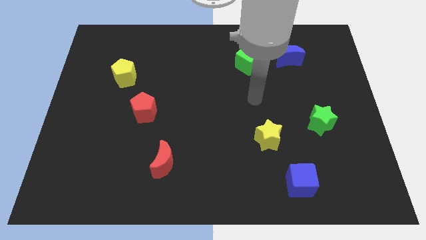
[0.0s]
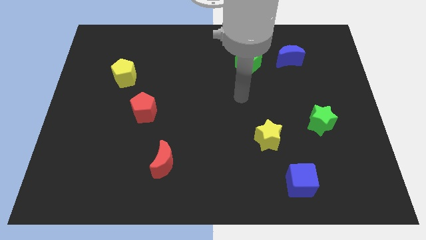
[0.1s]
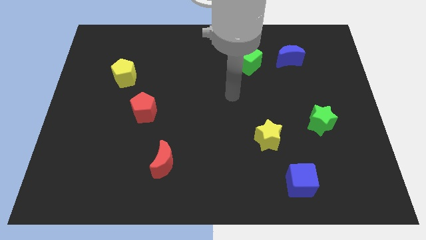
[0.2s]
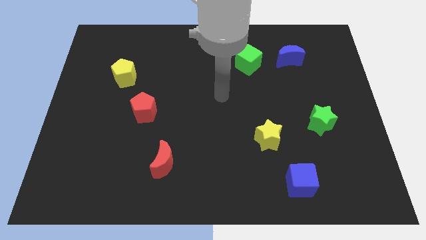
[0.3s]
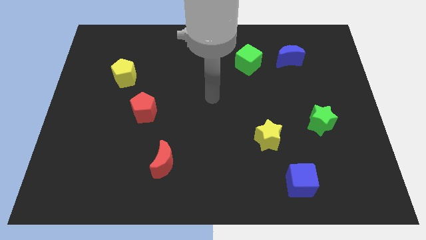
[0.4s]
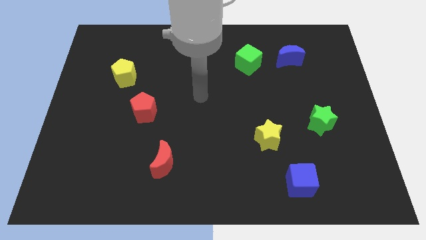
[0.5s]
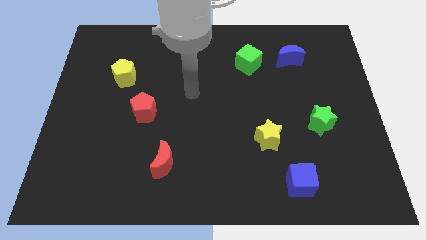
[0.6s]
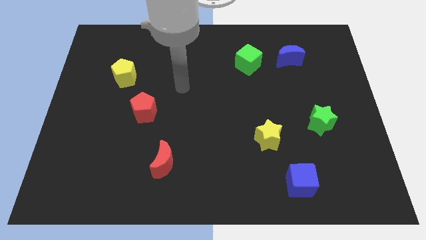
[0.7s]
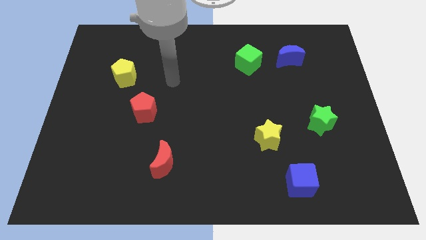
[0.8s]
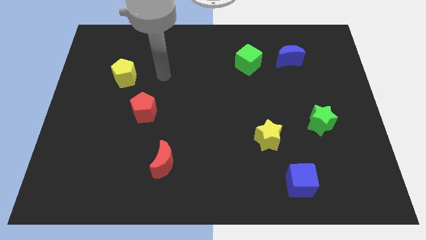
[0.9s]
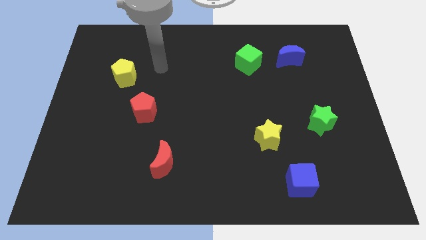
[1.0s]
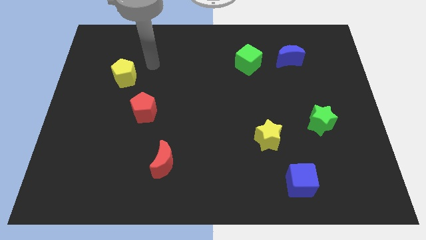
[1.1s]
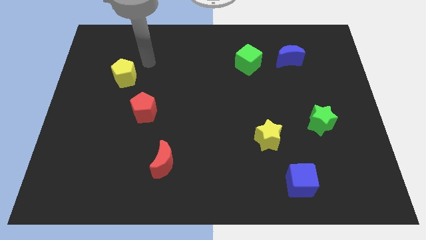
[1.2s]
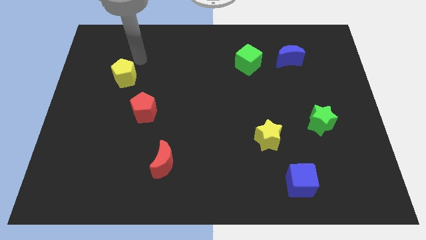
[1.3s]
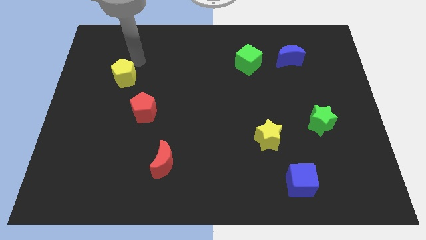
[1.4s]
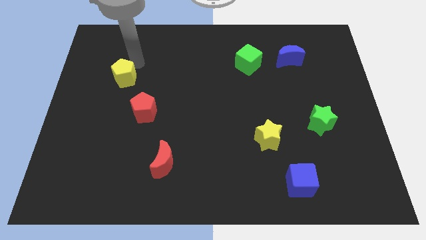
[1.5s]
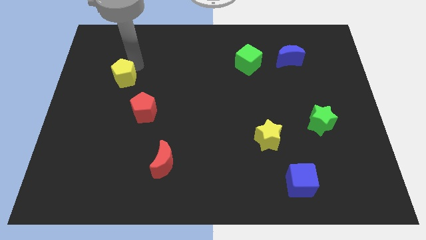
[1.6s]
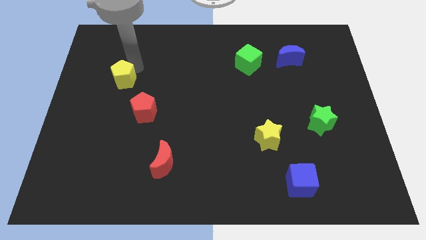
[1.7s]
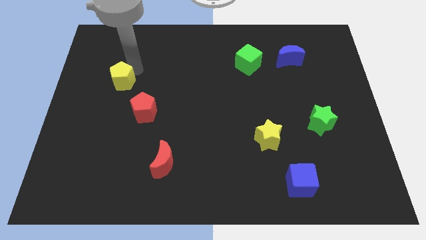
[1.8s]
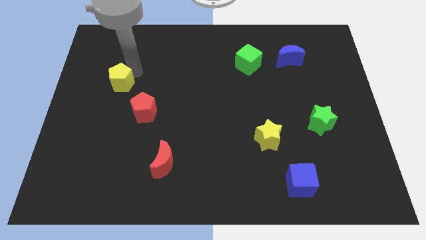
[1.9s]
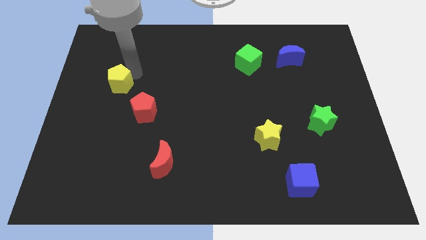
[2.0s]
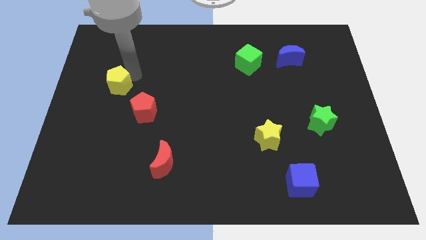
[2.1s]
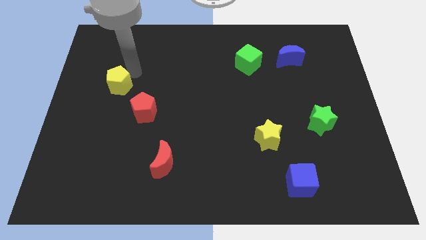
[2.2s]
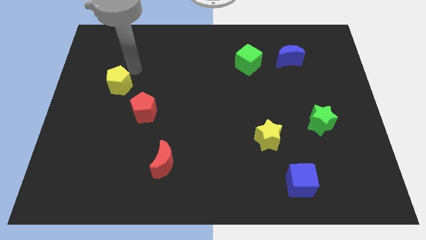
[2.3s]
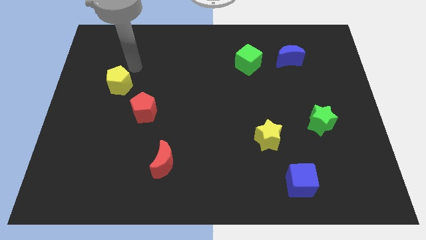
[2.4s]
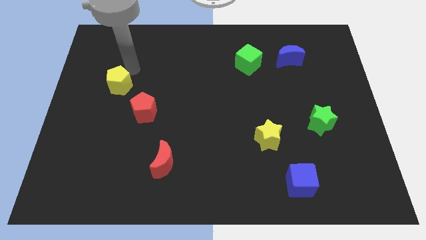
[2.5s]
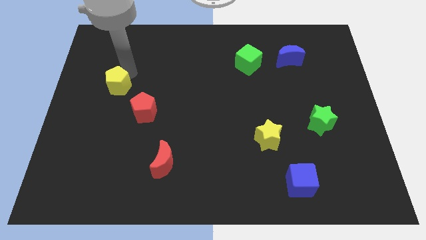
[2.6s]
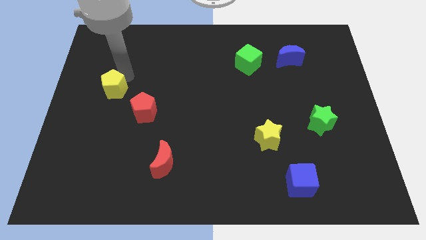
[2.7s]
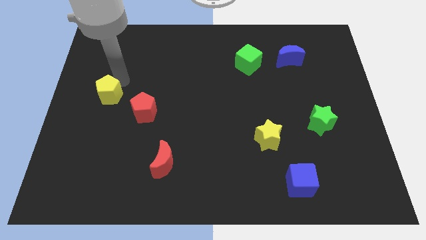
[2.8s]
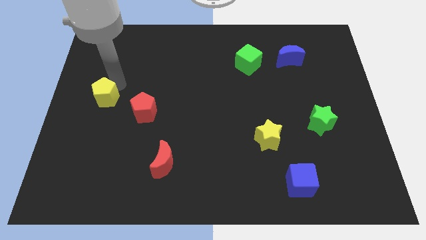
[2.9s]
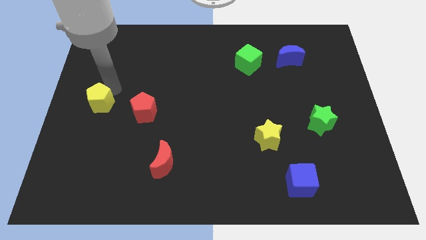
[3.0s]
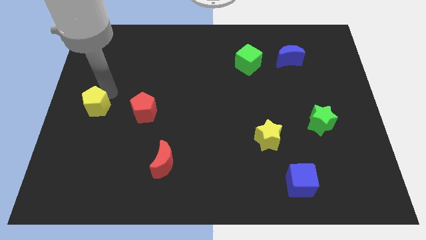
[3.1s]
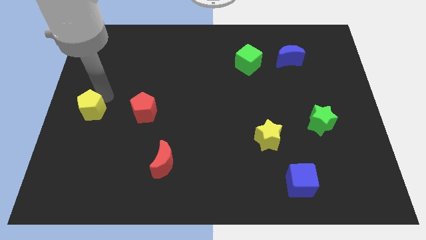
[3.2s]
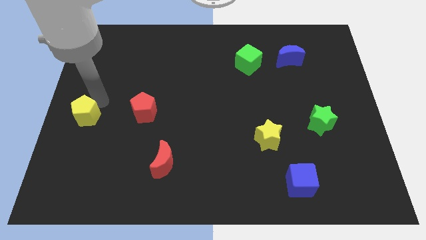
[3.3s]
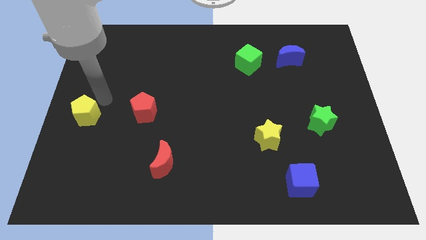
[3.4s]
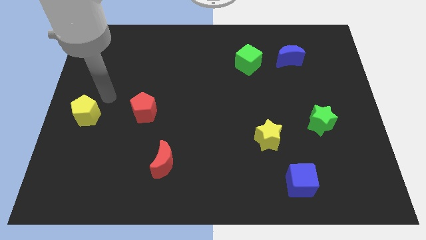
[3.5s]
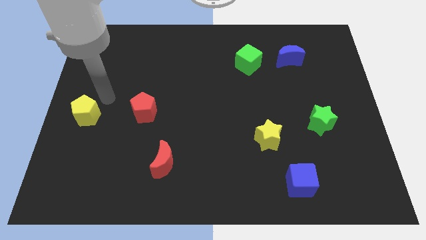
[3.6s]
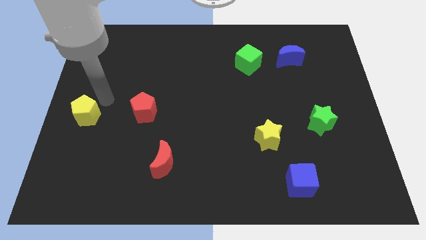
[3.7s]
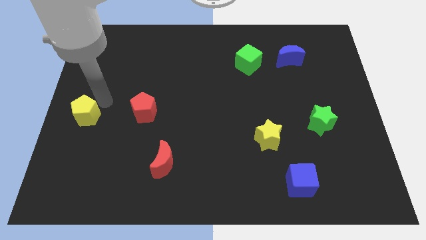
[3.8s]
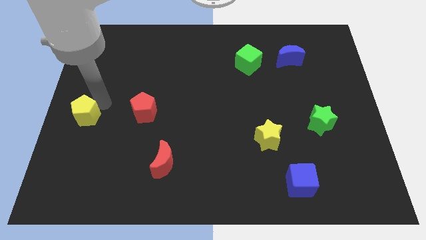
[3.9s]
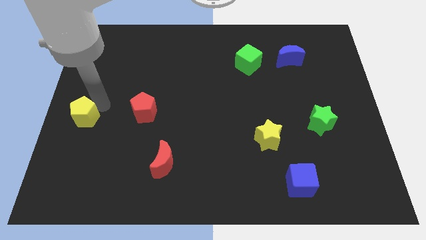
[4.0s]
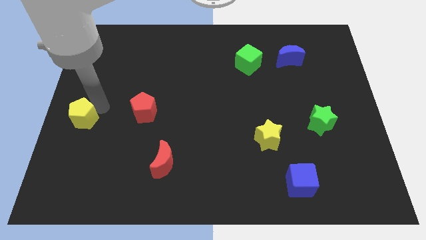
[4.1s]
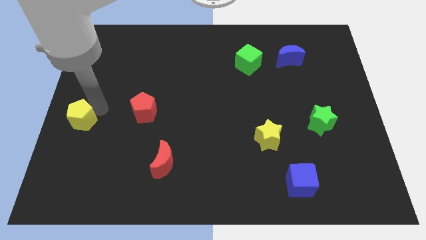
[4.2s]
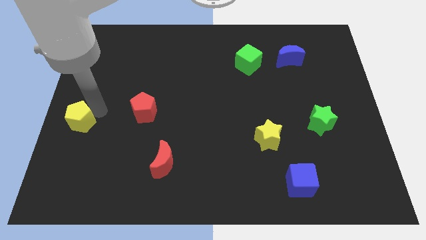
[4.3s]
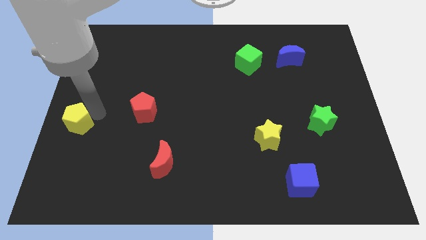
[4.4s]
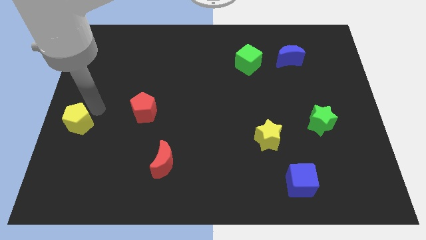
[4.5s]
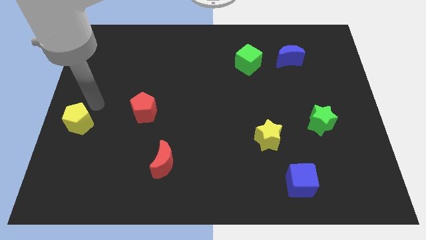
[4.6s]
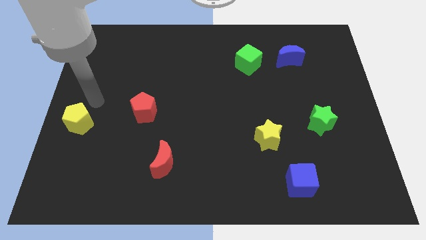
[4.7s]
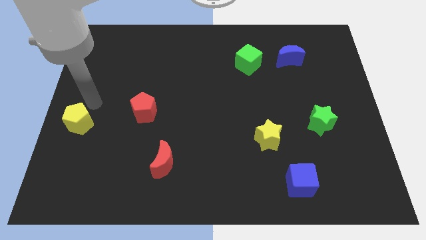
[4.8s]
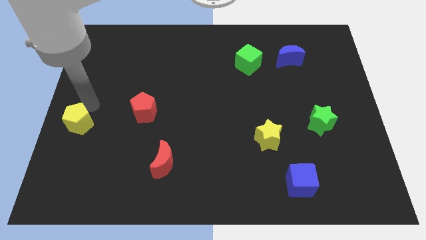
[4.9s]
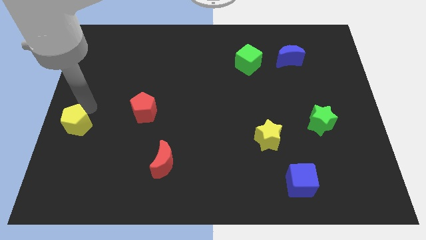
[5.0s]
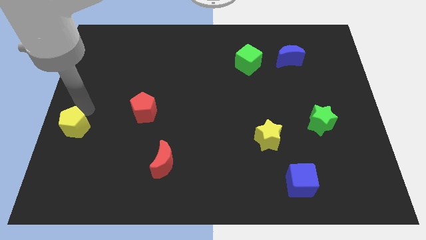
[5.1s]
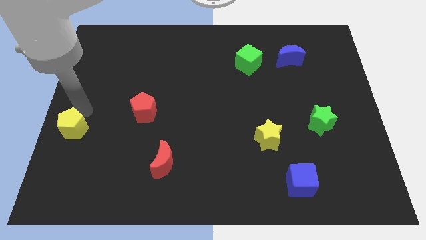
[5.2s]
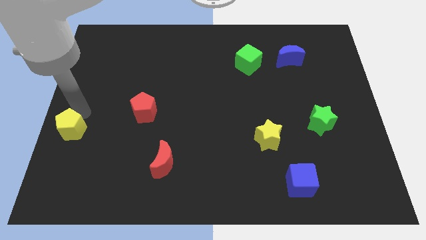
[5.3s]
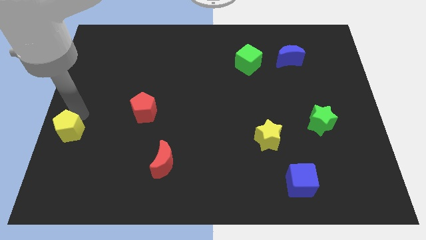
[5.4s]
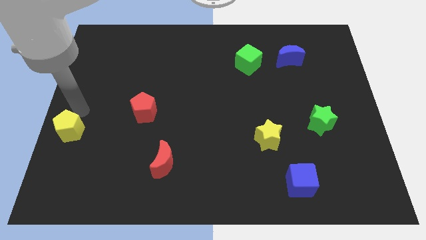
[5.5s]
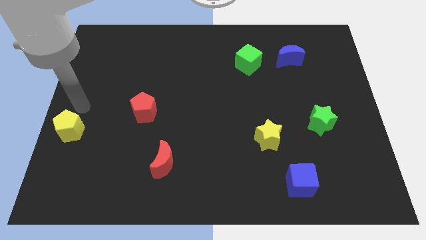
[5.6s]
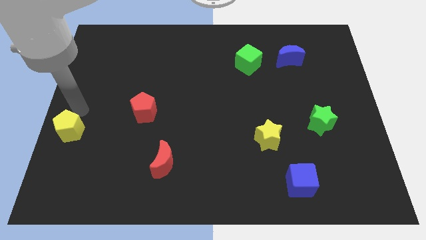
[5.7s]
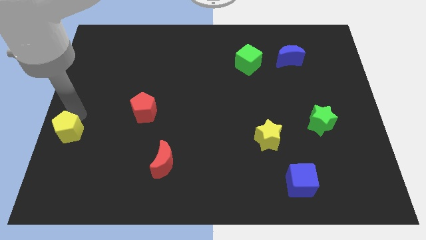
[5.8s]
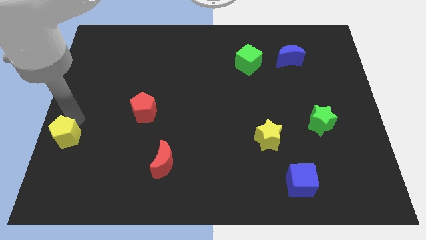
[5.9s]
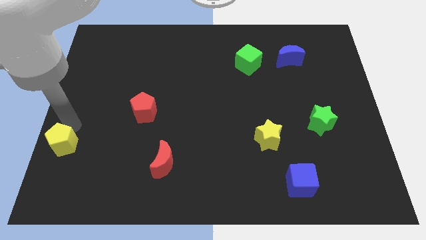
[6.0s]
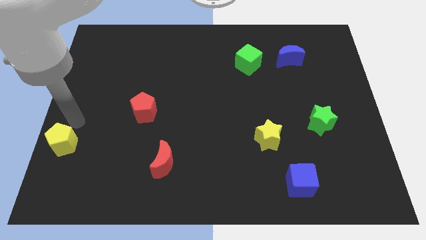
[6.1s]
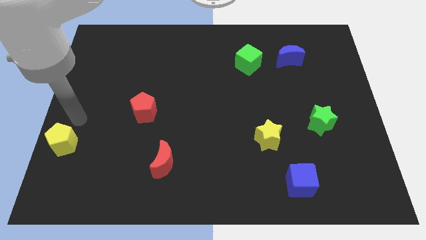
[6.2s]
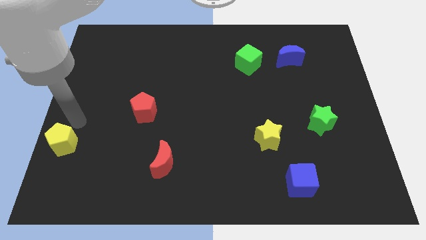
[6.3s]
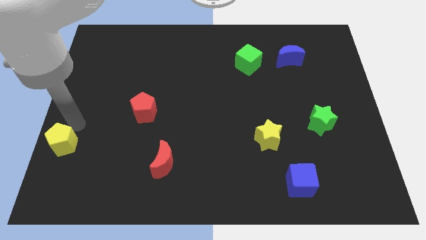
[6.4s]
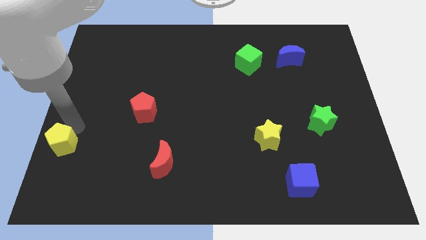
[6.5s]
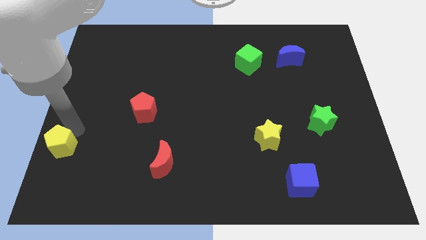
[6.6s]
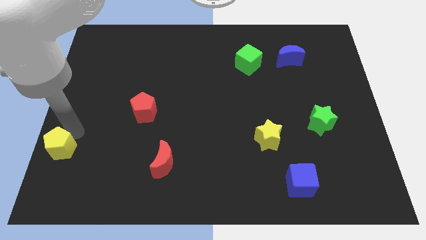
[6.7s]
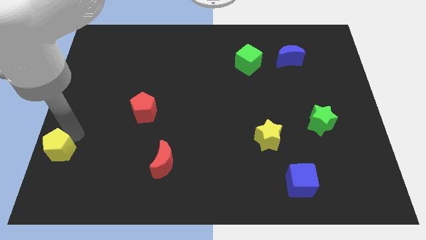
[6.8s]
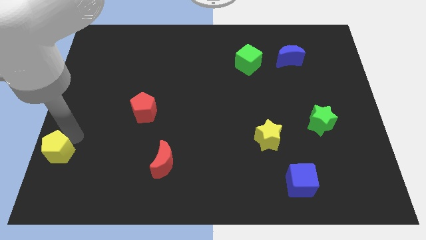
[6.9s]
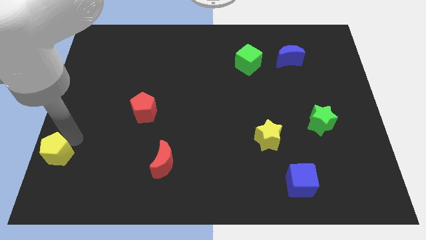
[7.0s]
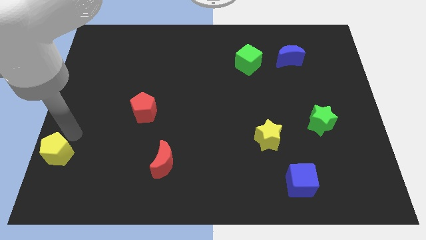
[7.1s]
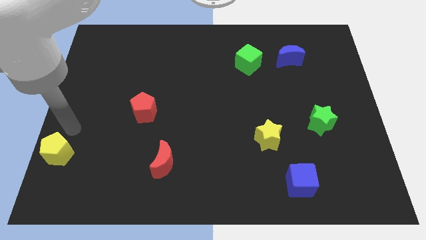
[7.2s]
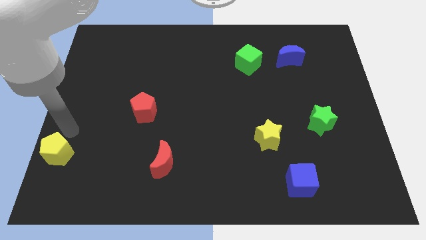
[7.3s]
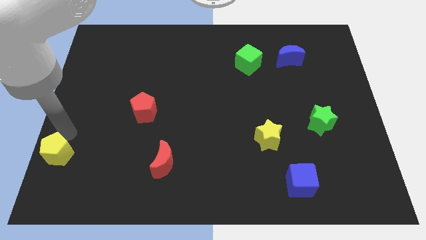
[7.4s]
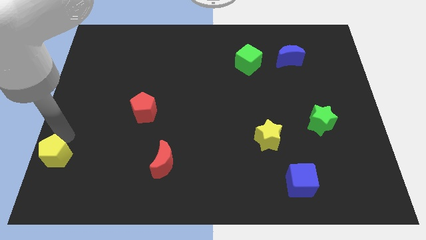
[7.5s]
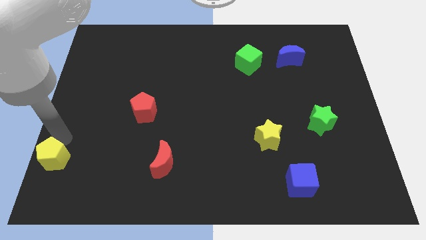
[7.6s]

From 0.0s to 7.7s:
move the yellow pentagon to the bottom left corner
